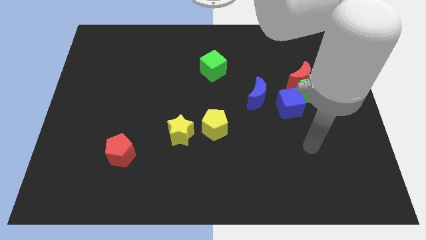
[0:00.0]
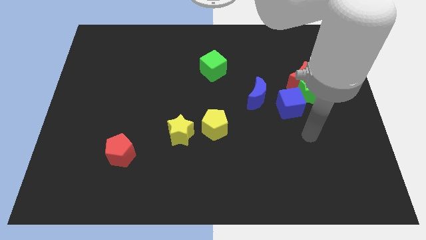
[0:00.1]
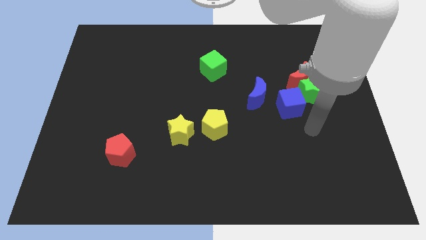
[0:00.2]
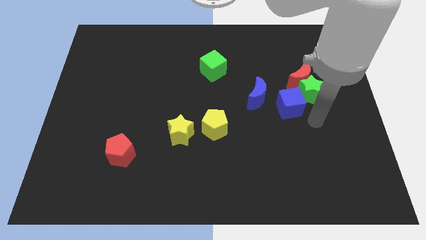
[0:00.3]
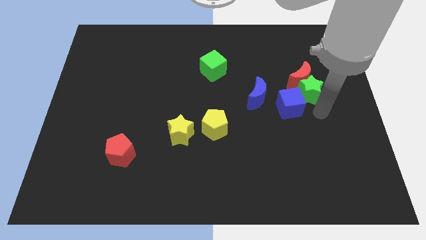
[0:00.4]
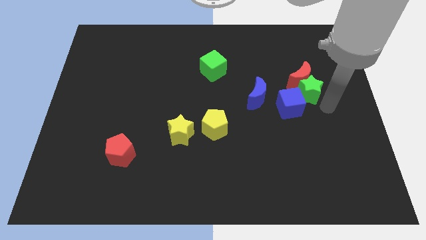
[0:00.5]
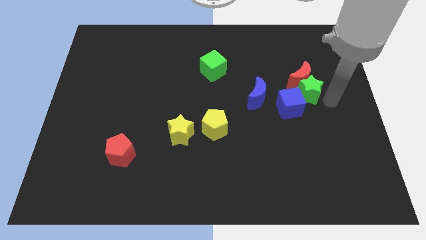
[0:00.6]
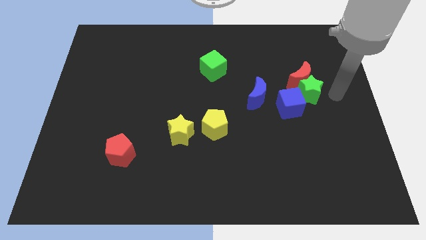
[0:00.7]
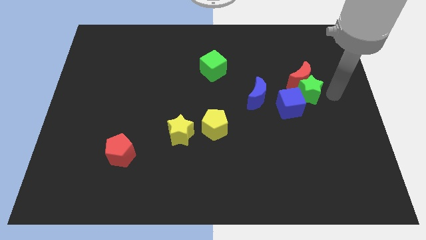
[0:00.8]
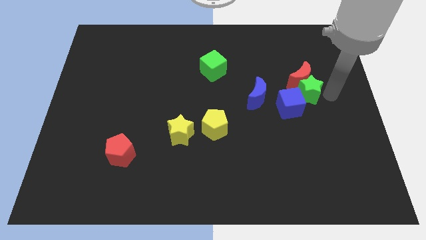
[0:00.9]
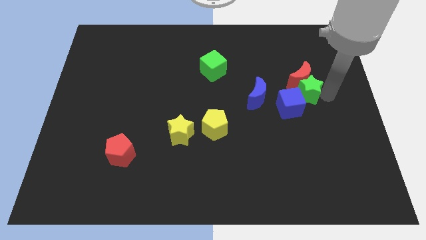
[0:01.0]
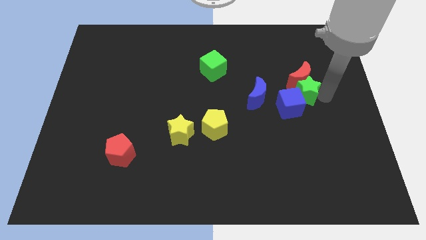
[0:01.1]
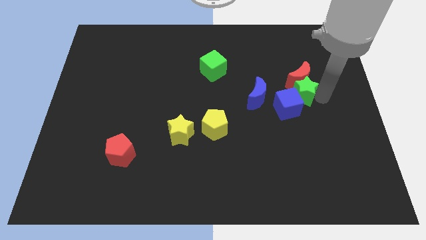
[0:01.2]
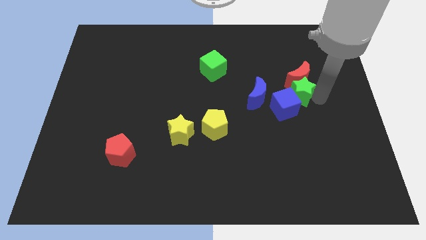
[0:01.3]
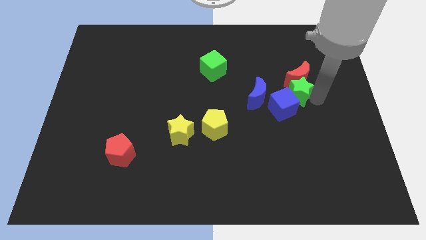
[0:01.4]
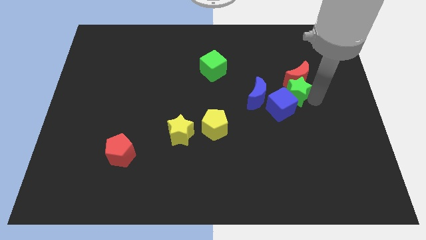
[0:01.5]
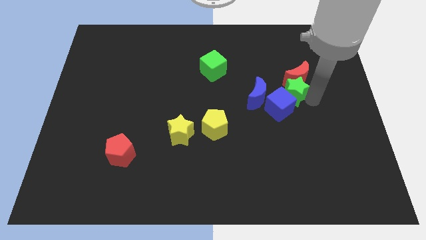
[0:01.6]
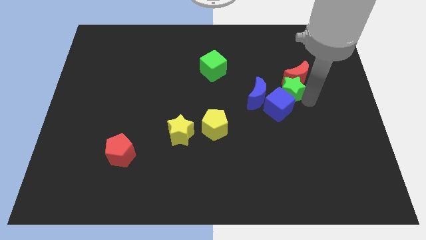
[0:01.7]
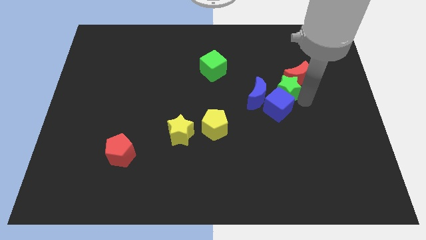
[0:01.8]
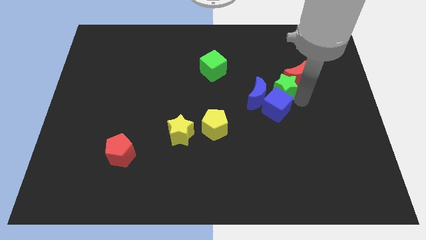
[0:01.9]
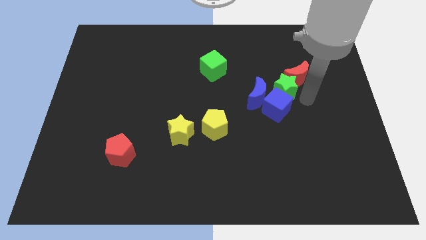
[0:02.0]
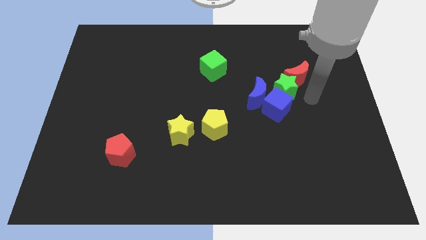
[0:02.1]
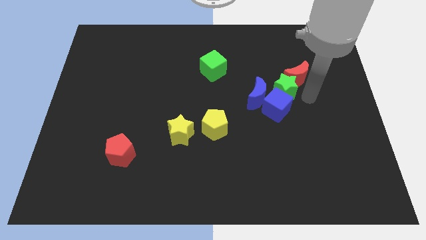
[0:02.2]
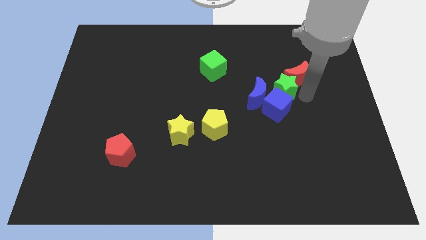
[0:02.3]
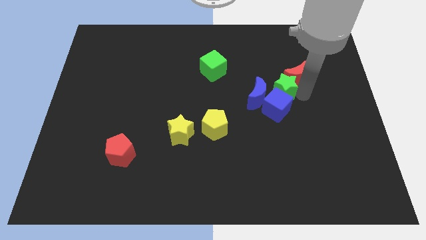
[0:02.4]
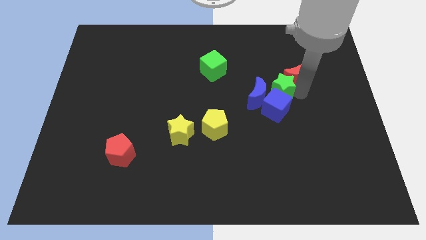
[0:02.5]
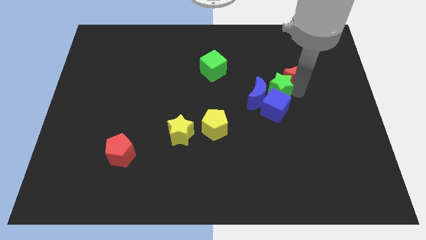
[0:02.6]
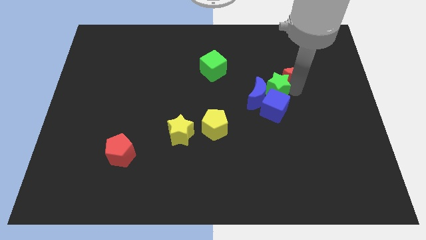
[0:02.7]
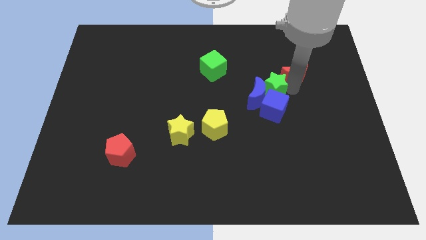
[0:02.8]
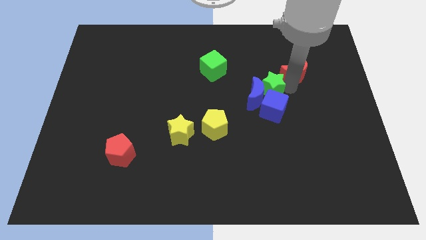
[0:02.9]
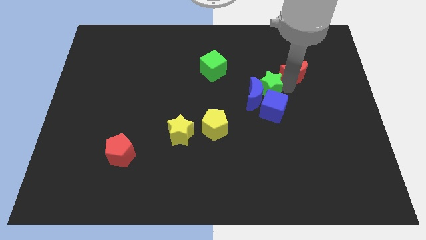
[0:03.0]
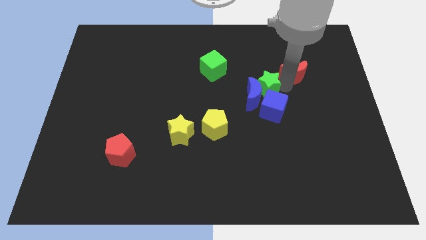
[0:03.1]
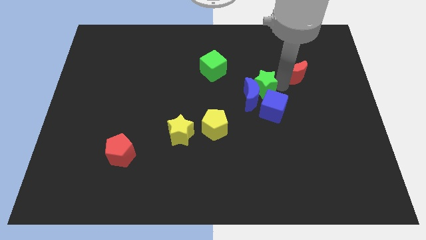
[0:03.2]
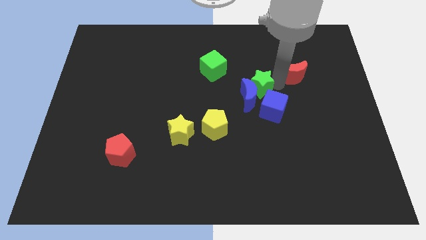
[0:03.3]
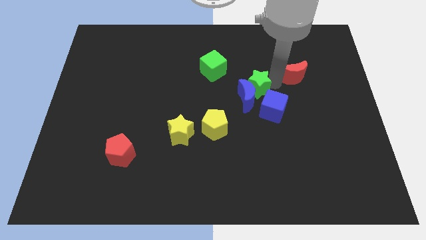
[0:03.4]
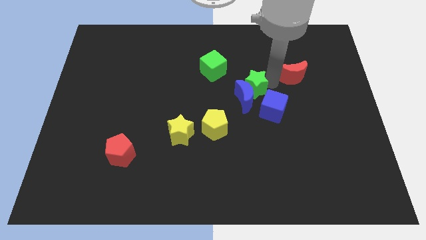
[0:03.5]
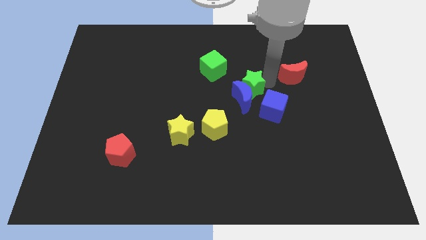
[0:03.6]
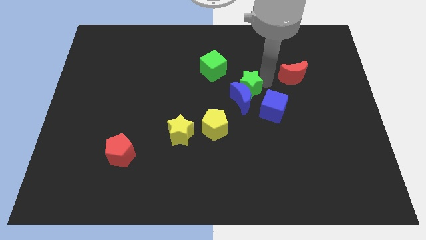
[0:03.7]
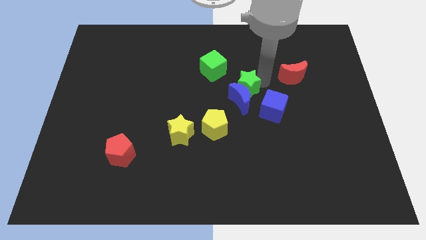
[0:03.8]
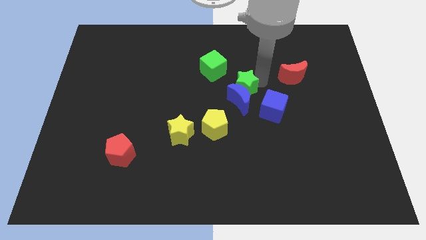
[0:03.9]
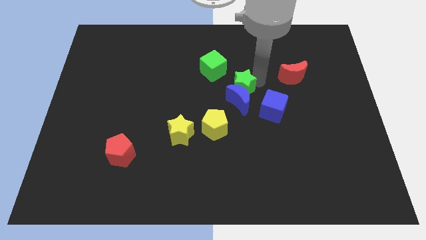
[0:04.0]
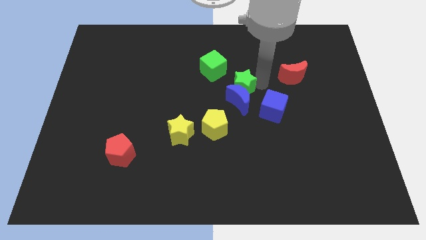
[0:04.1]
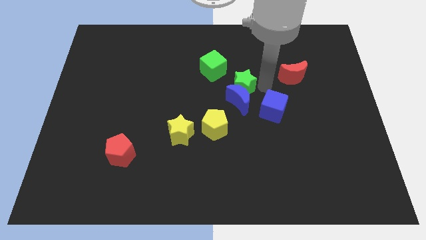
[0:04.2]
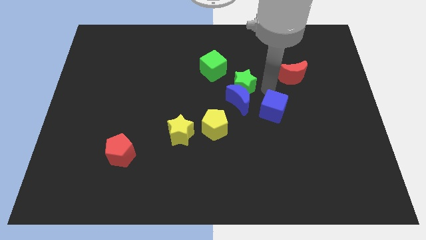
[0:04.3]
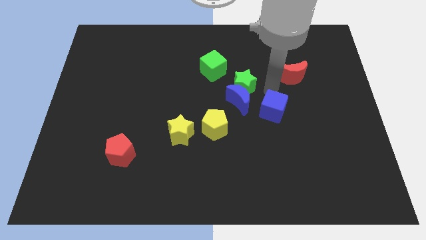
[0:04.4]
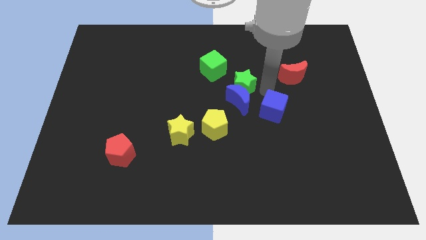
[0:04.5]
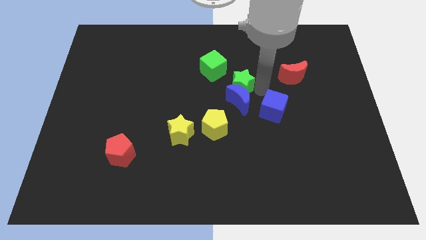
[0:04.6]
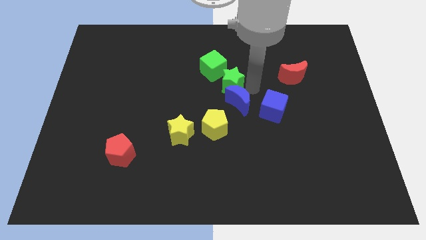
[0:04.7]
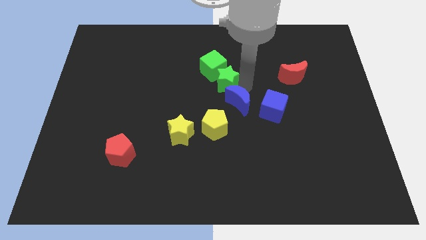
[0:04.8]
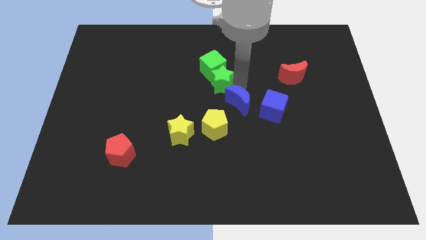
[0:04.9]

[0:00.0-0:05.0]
move the green star to the left

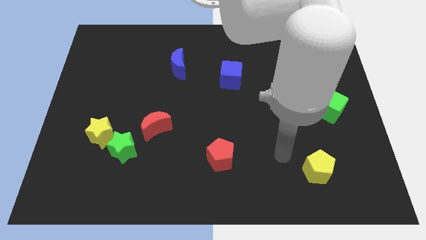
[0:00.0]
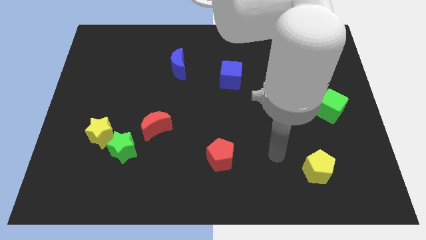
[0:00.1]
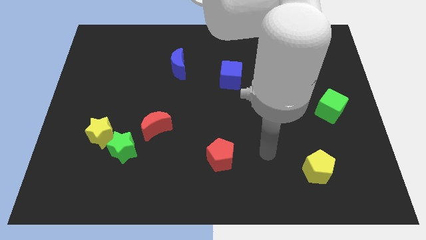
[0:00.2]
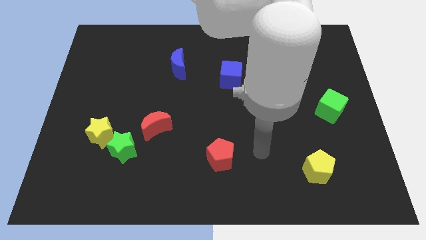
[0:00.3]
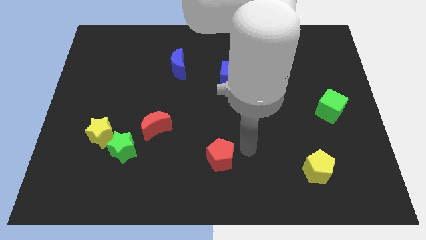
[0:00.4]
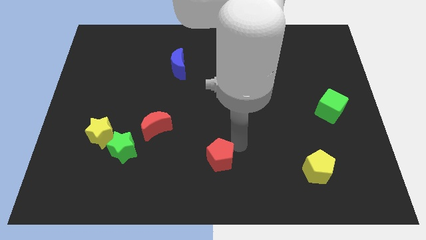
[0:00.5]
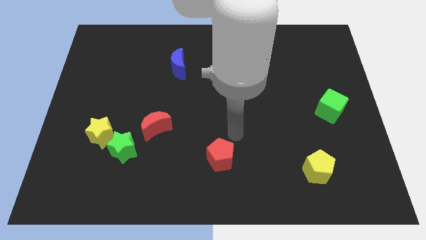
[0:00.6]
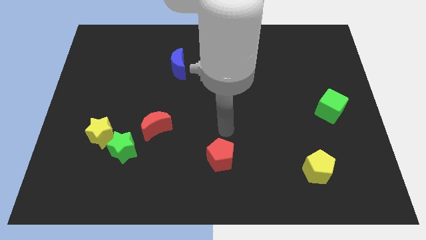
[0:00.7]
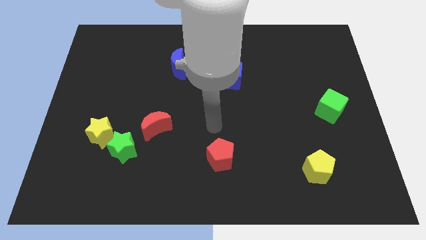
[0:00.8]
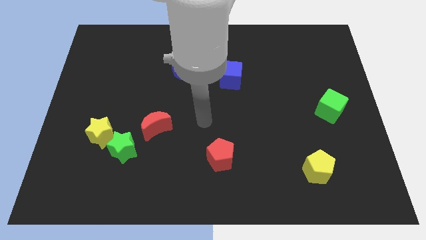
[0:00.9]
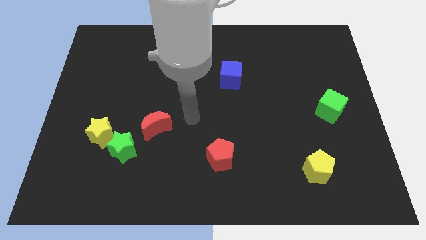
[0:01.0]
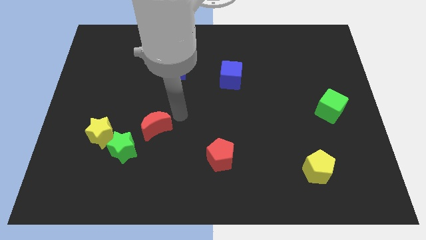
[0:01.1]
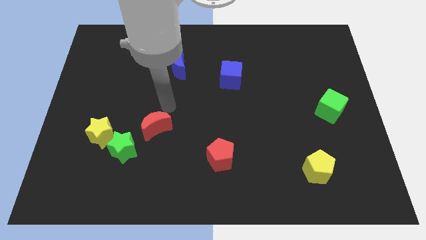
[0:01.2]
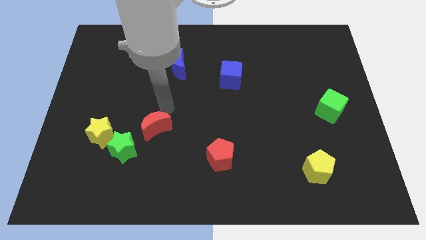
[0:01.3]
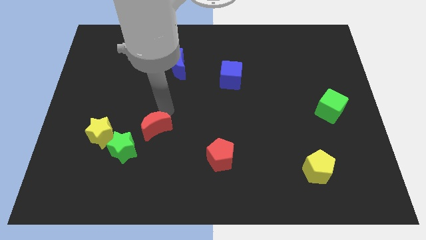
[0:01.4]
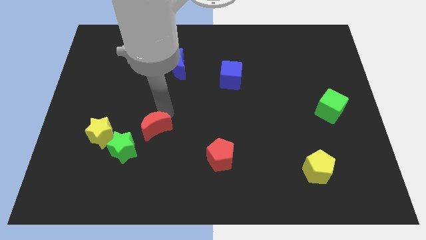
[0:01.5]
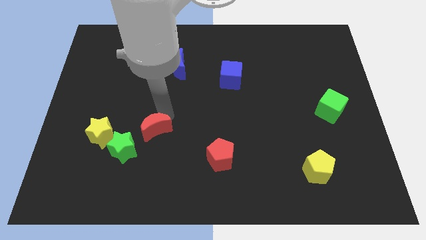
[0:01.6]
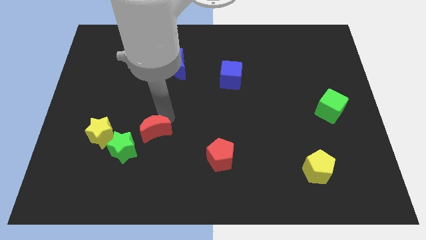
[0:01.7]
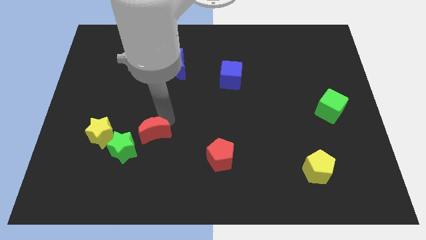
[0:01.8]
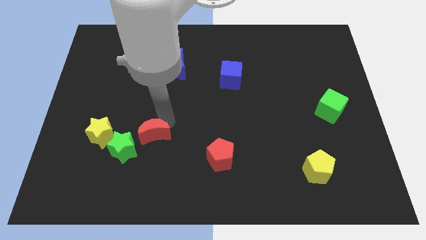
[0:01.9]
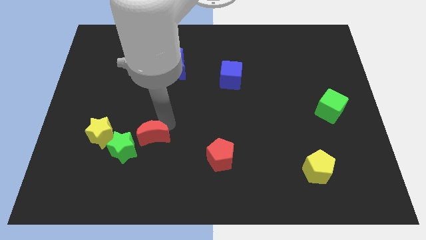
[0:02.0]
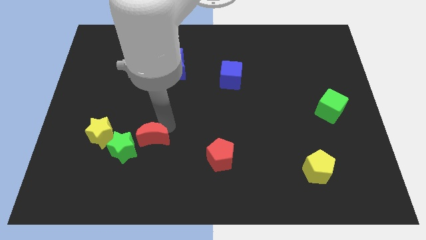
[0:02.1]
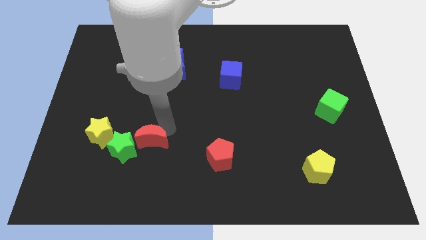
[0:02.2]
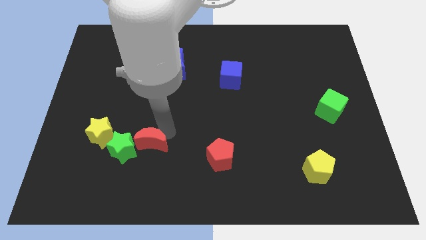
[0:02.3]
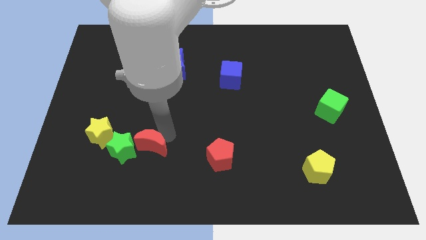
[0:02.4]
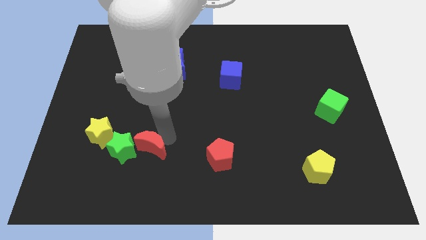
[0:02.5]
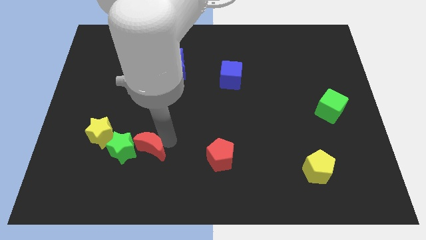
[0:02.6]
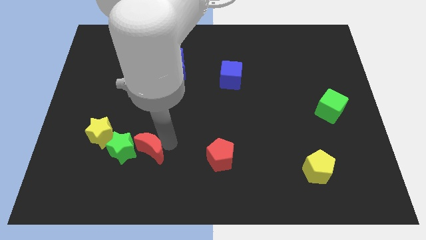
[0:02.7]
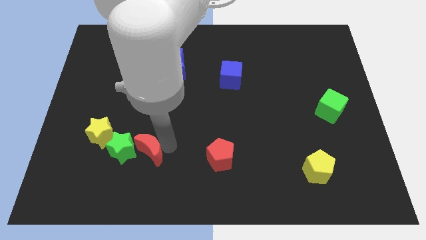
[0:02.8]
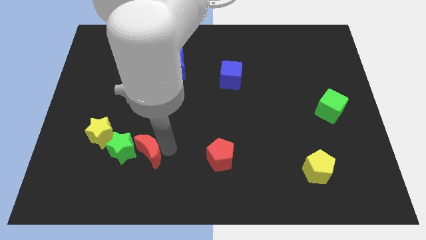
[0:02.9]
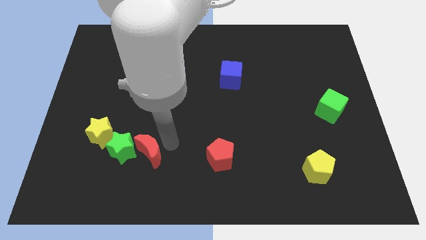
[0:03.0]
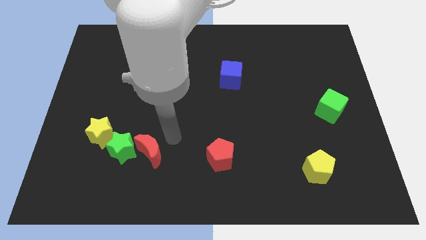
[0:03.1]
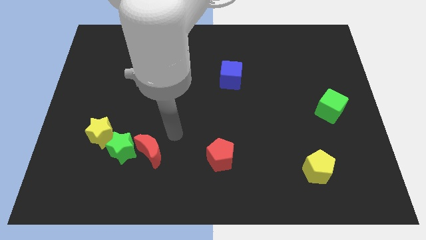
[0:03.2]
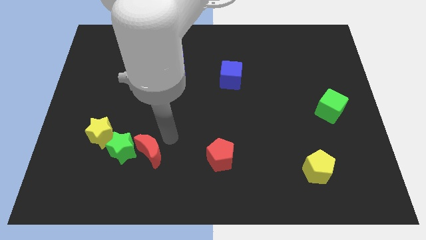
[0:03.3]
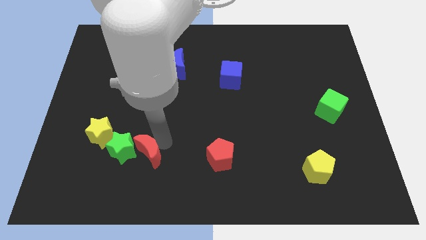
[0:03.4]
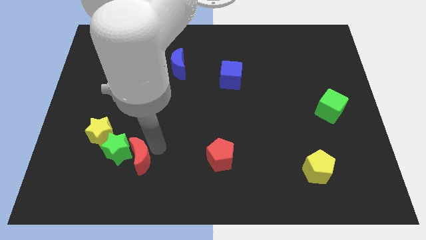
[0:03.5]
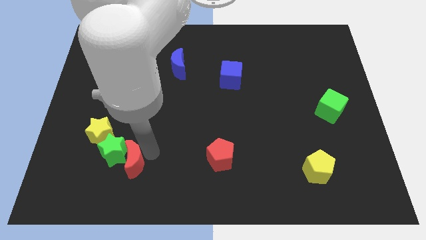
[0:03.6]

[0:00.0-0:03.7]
slide the red moon diagonally down and to the left a little
